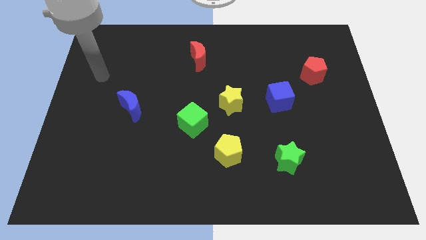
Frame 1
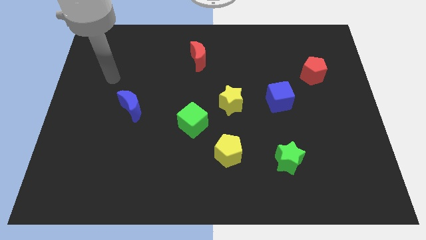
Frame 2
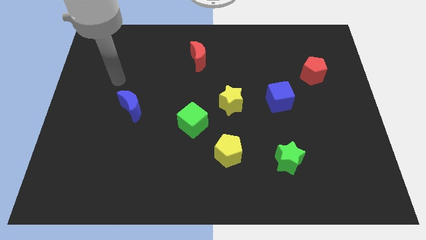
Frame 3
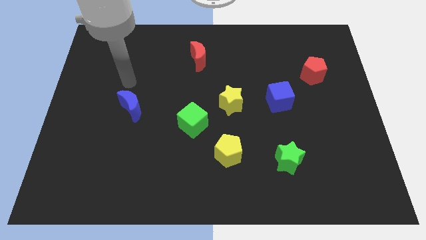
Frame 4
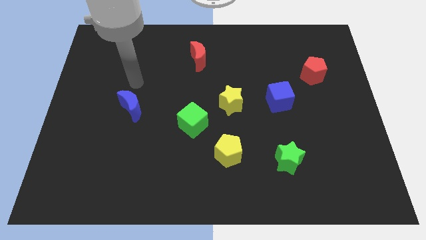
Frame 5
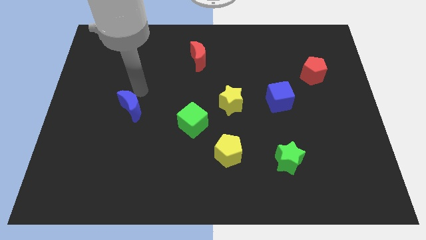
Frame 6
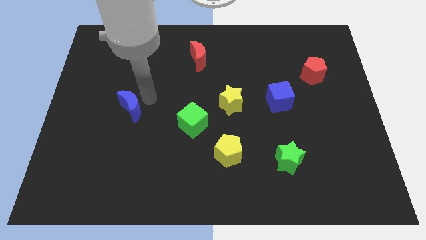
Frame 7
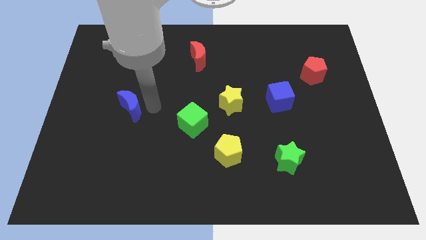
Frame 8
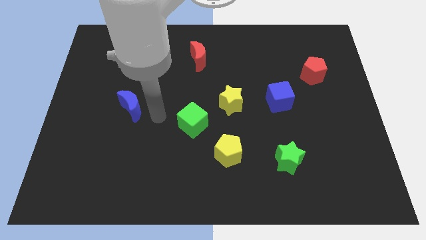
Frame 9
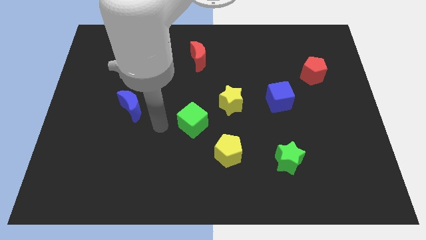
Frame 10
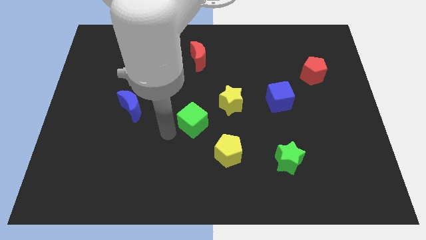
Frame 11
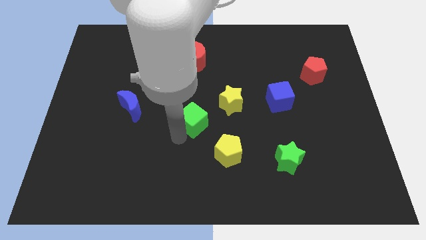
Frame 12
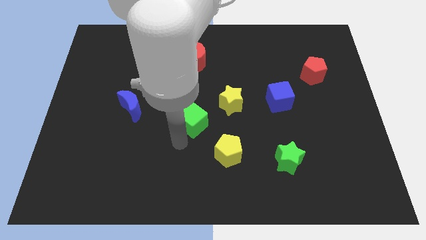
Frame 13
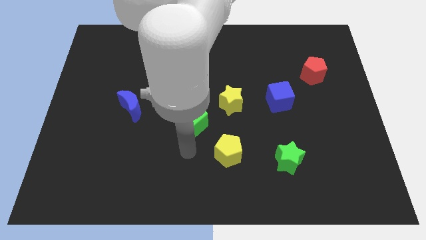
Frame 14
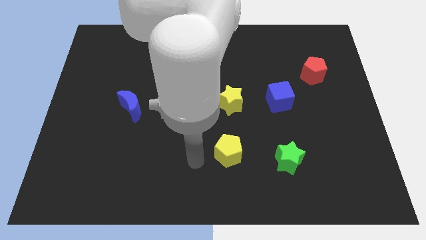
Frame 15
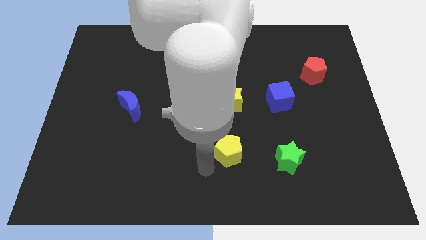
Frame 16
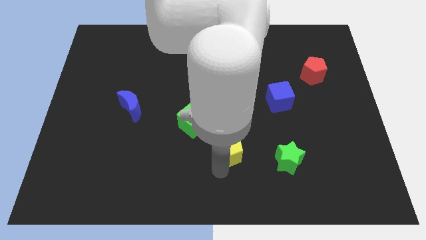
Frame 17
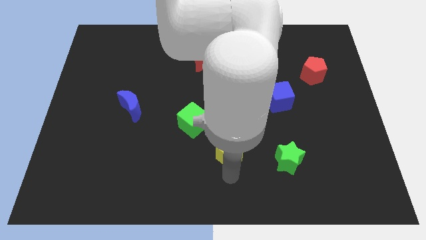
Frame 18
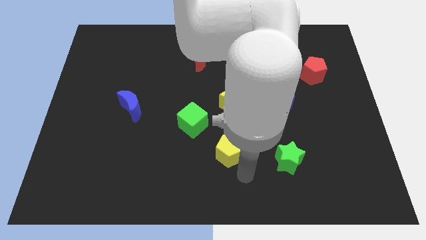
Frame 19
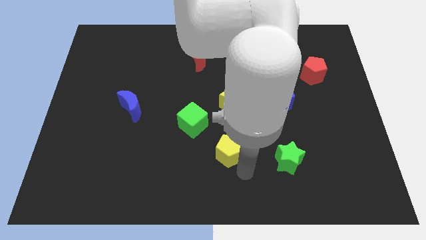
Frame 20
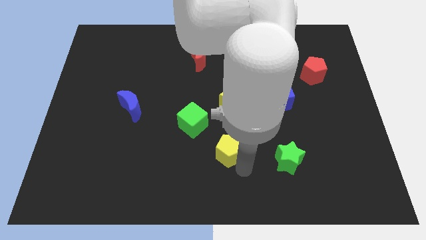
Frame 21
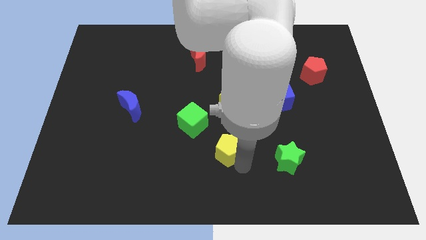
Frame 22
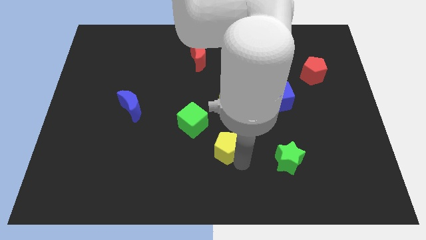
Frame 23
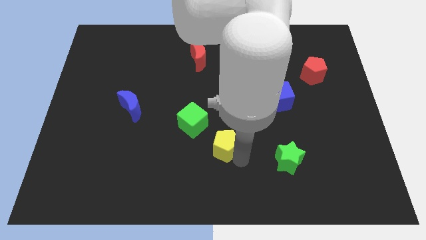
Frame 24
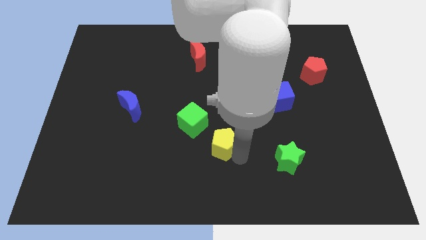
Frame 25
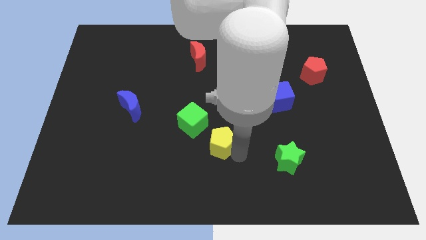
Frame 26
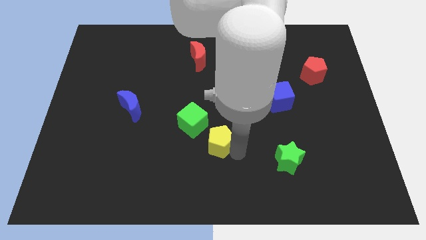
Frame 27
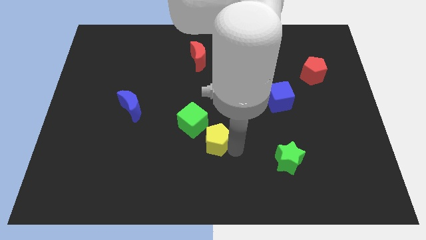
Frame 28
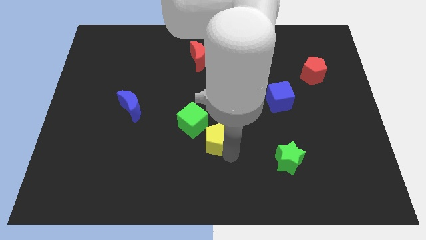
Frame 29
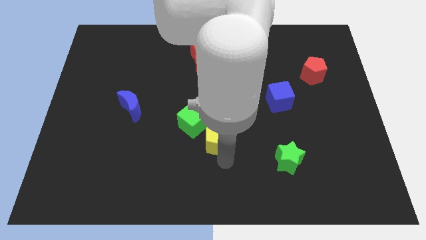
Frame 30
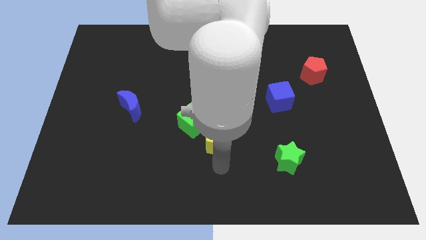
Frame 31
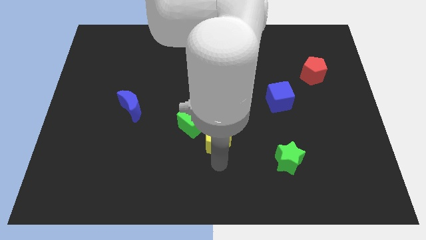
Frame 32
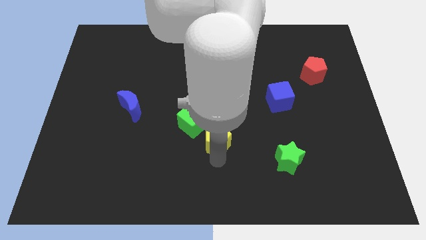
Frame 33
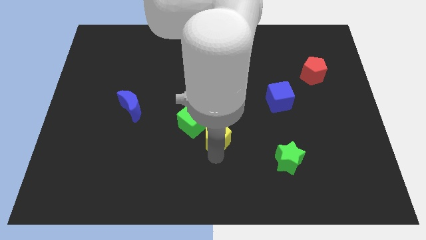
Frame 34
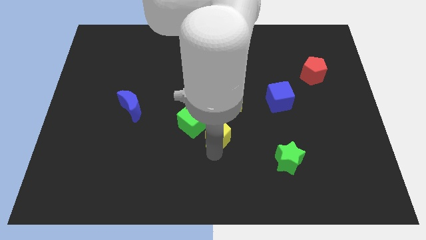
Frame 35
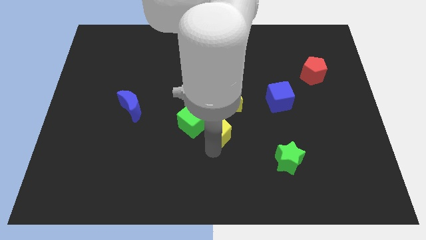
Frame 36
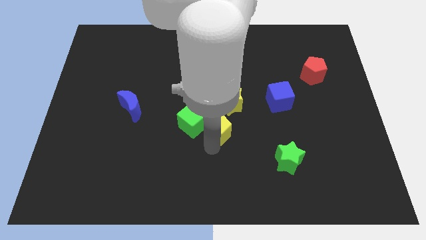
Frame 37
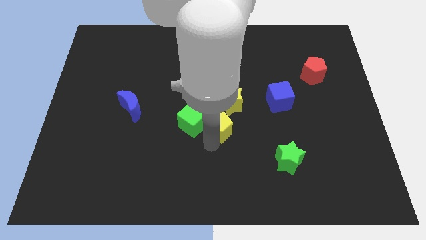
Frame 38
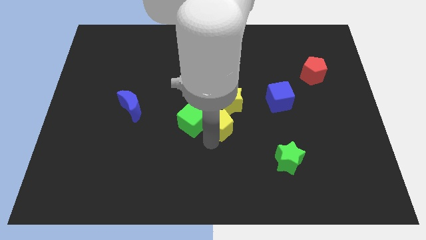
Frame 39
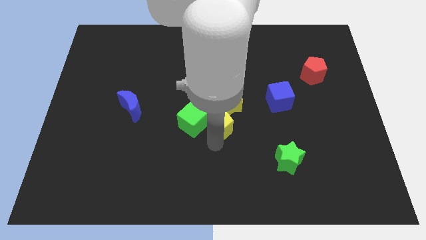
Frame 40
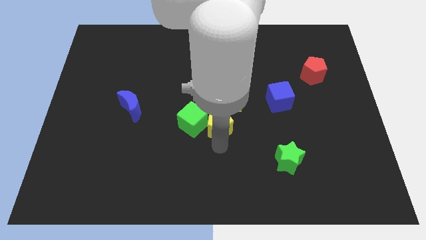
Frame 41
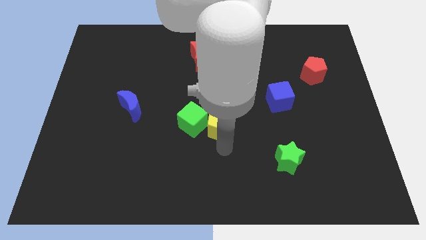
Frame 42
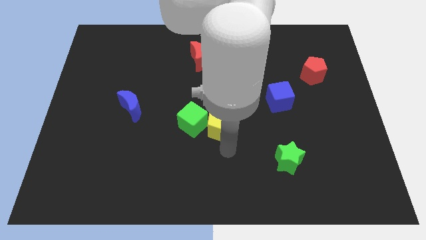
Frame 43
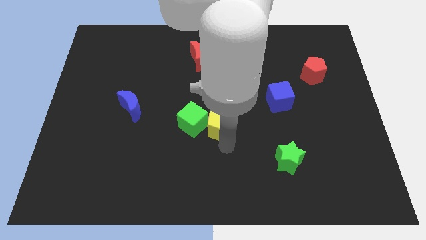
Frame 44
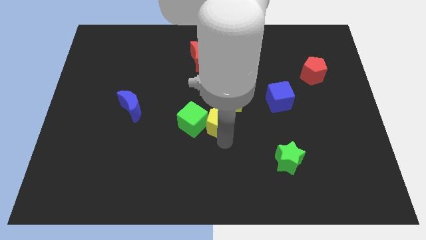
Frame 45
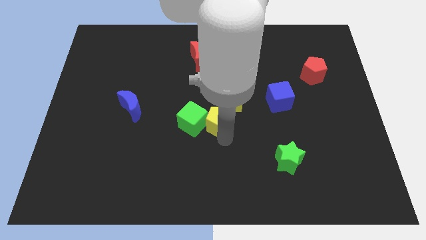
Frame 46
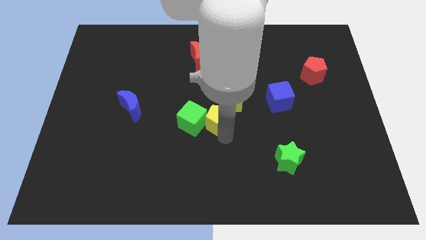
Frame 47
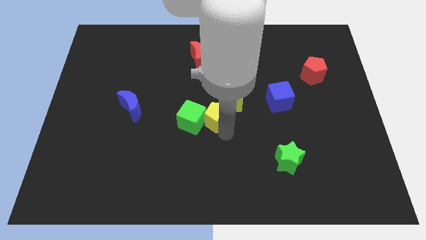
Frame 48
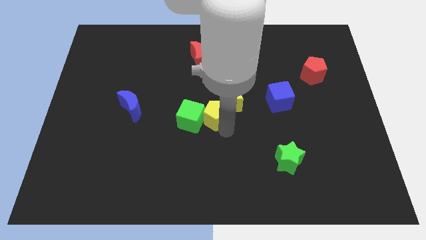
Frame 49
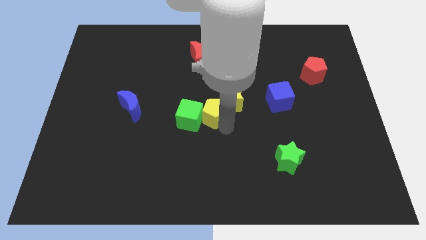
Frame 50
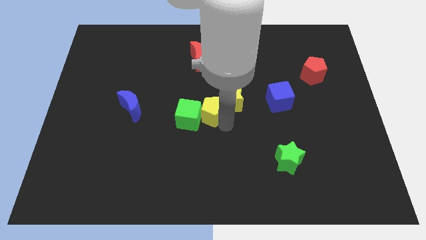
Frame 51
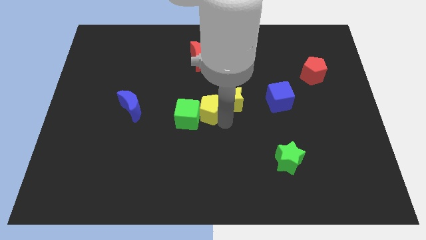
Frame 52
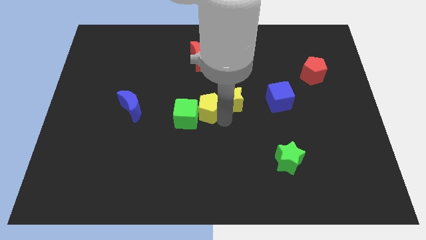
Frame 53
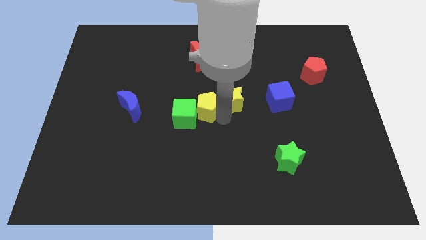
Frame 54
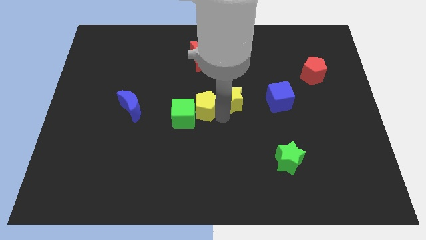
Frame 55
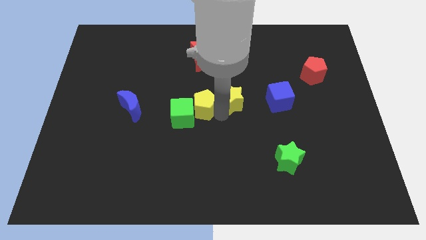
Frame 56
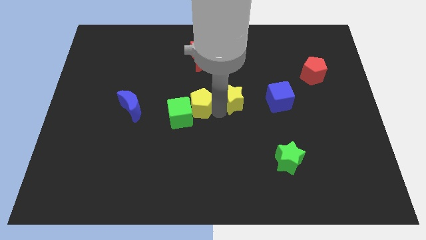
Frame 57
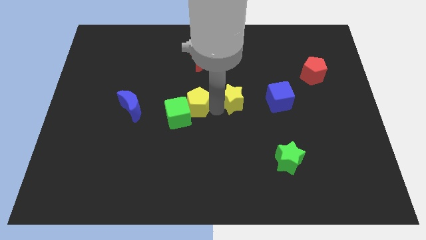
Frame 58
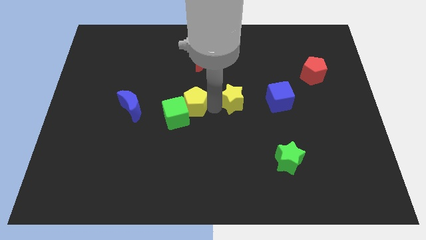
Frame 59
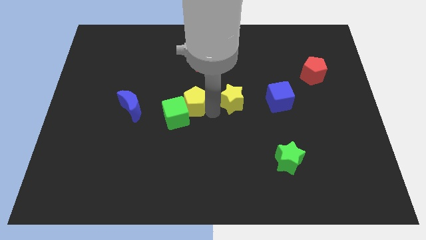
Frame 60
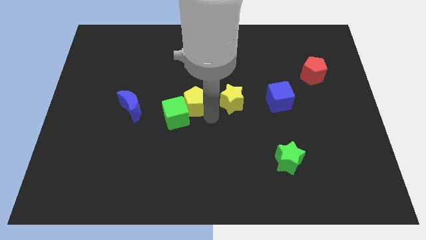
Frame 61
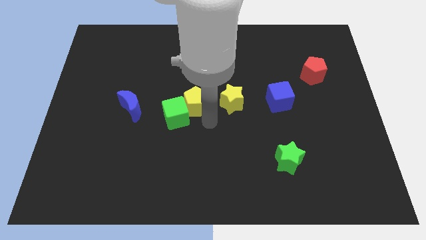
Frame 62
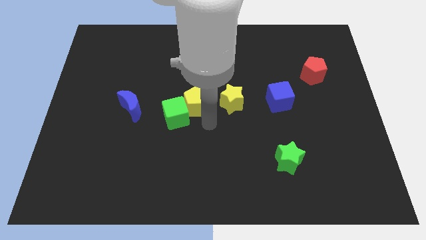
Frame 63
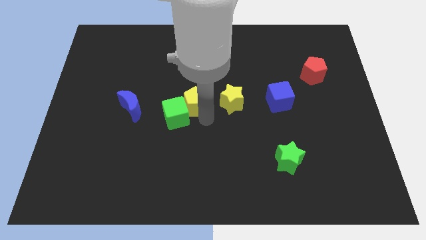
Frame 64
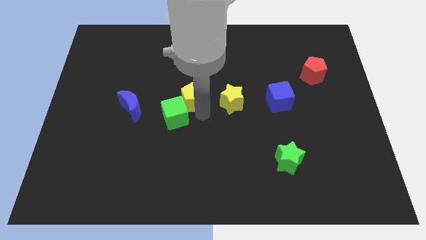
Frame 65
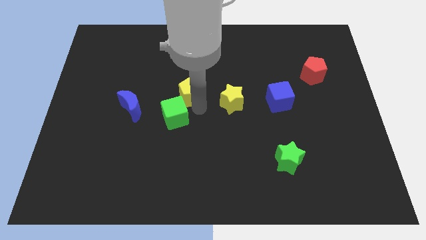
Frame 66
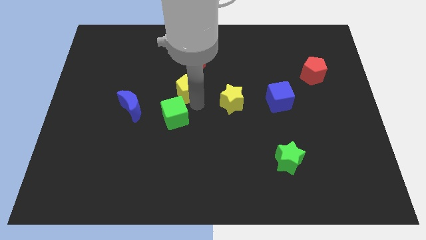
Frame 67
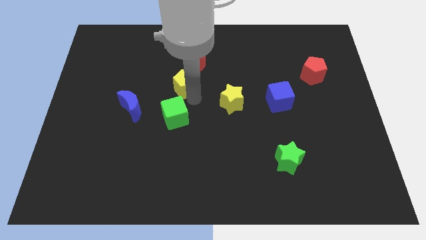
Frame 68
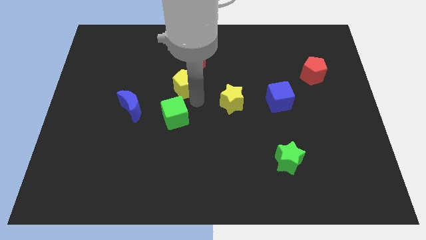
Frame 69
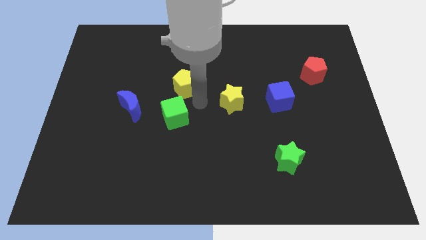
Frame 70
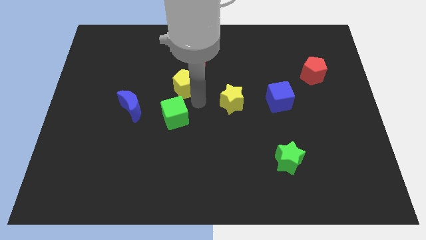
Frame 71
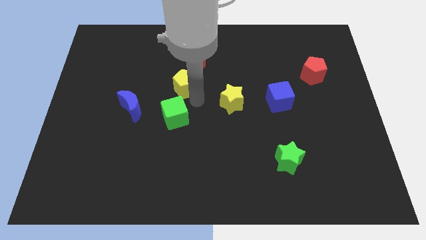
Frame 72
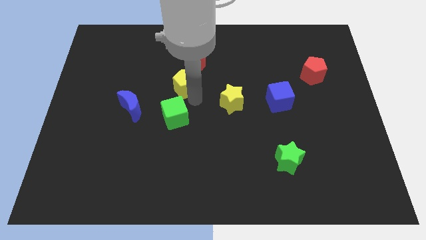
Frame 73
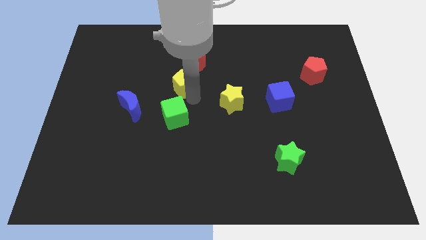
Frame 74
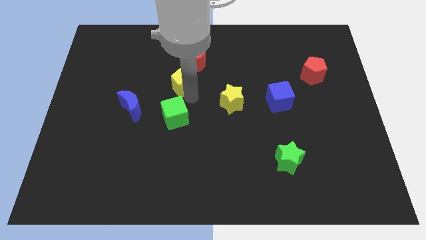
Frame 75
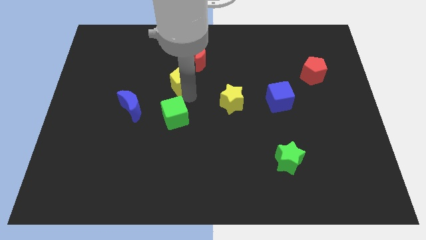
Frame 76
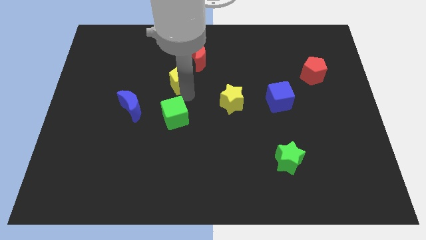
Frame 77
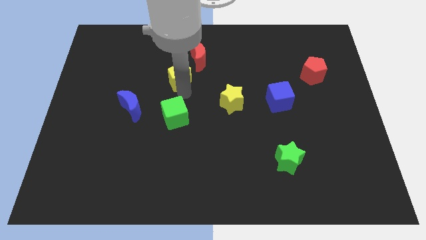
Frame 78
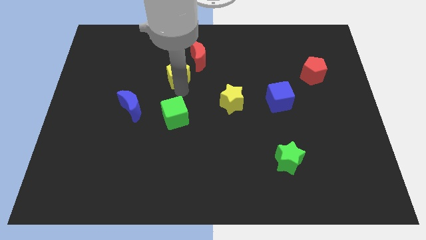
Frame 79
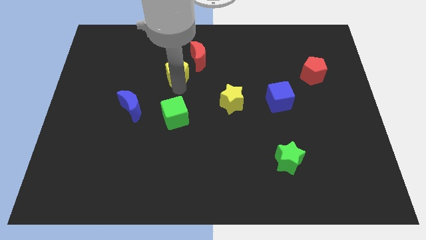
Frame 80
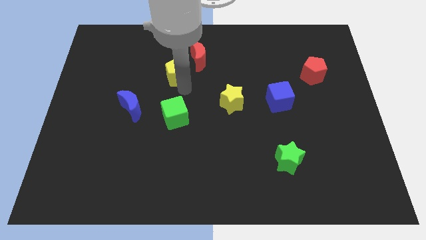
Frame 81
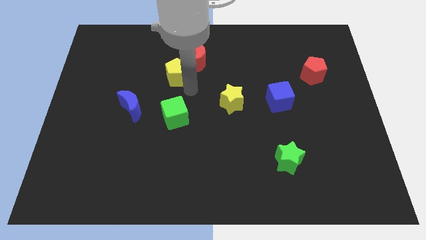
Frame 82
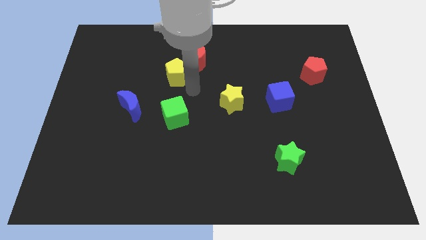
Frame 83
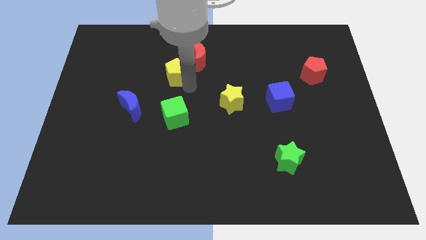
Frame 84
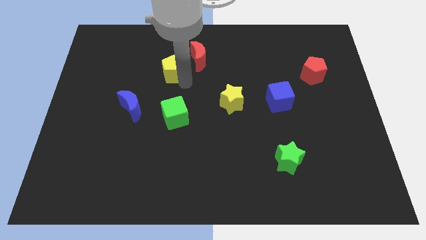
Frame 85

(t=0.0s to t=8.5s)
slide the yellow pentagon to the left of the red moon
